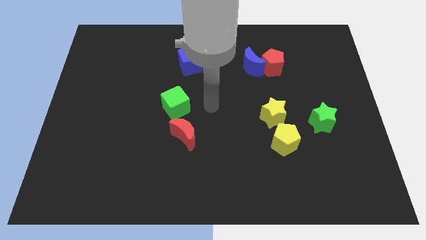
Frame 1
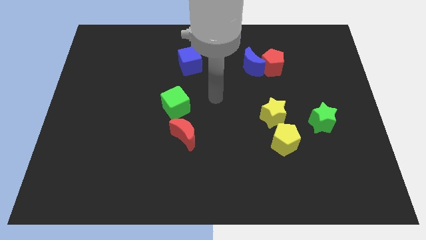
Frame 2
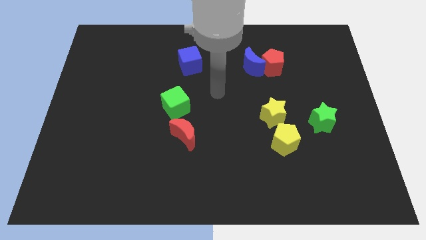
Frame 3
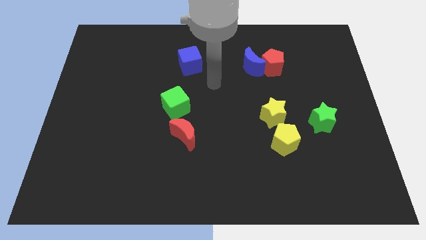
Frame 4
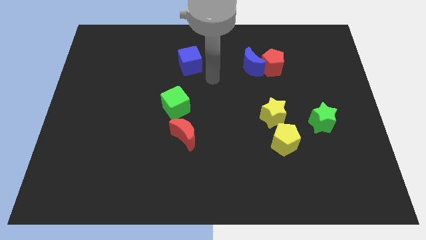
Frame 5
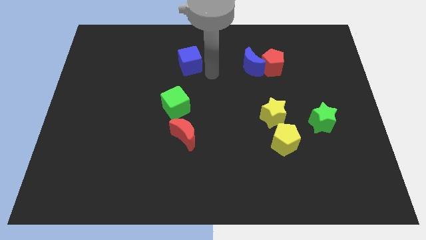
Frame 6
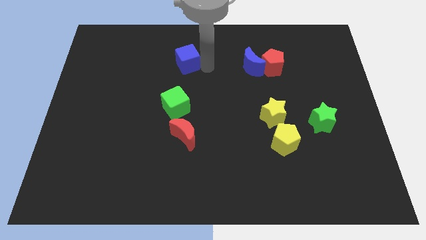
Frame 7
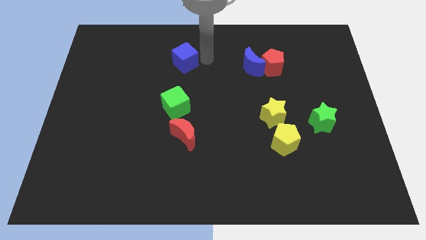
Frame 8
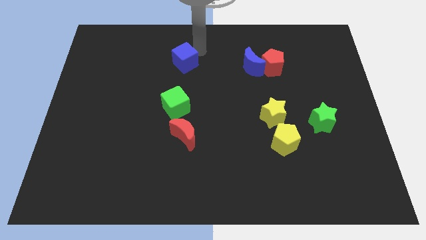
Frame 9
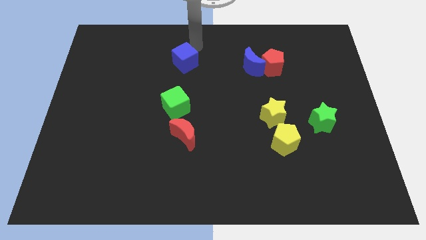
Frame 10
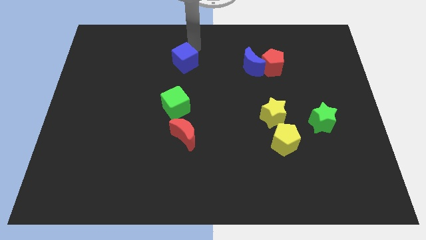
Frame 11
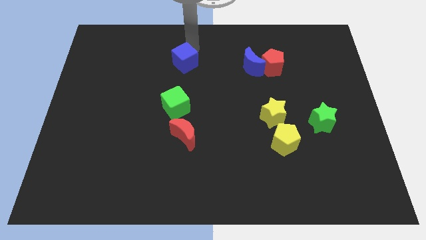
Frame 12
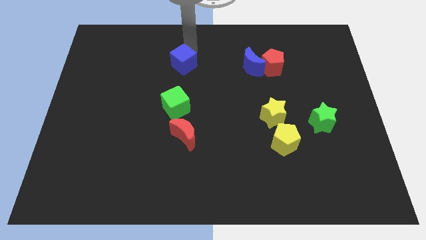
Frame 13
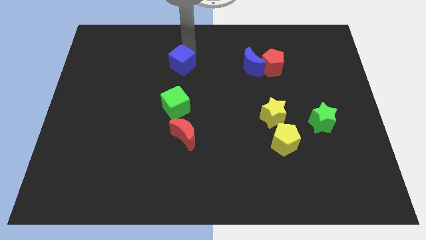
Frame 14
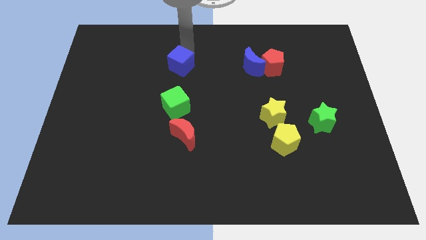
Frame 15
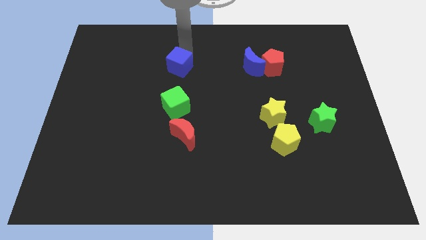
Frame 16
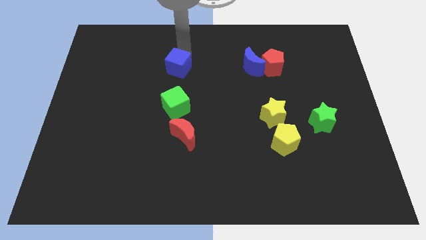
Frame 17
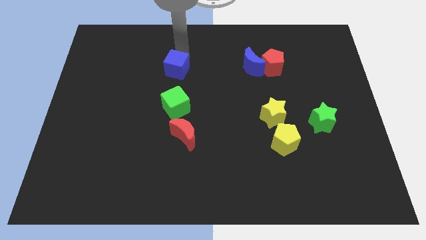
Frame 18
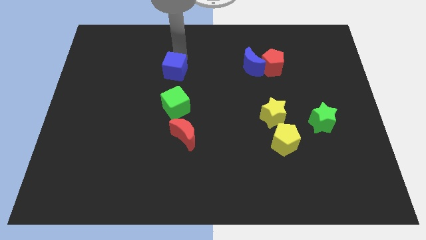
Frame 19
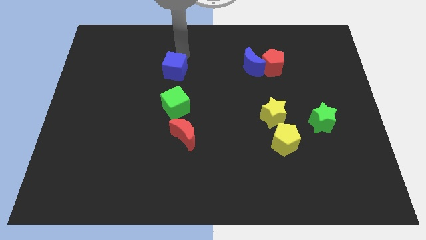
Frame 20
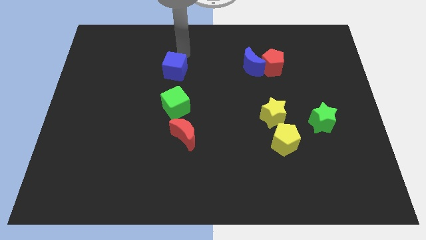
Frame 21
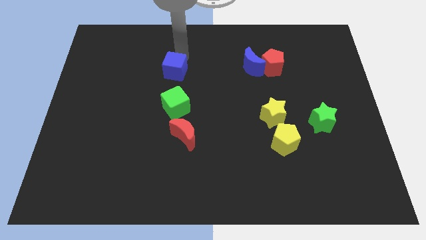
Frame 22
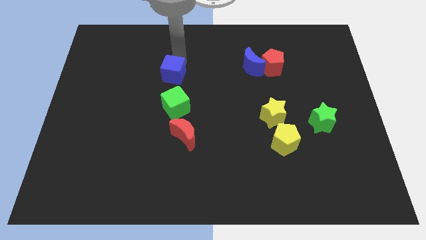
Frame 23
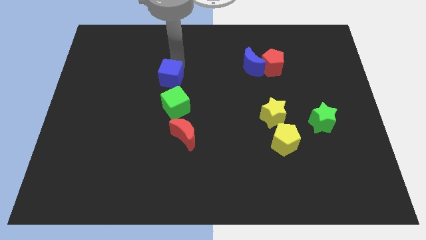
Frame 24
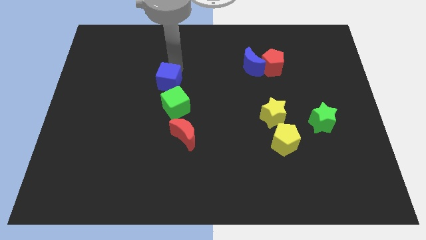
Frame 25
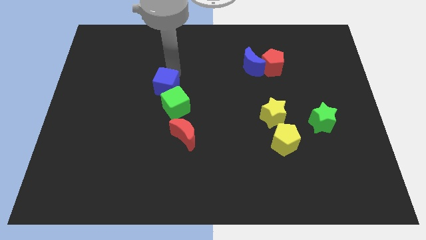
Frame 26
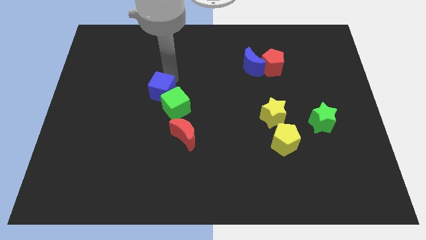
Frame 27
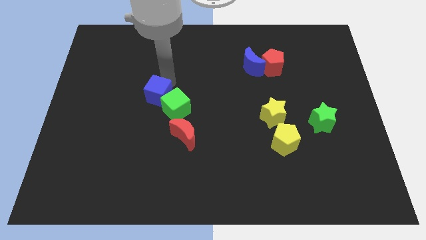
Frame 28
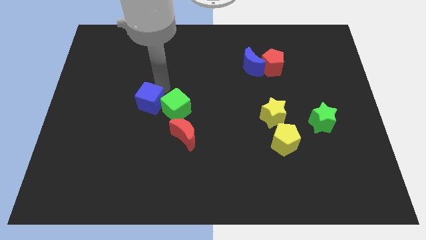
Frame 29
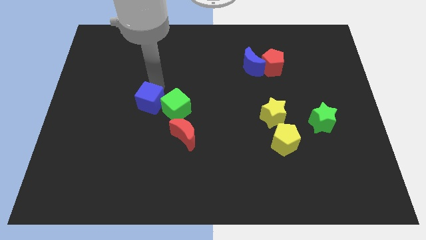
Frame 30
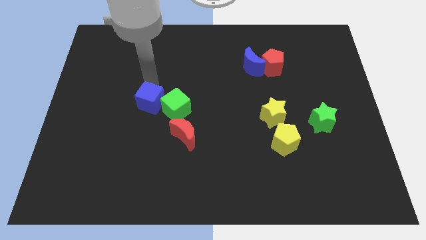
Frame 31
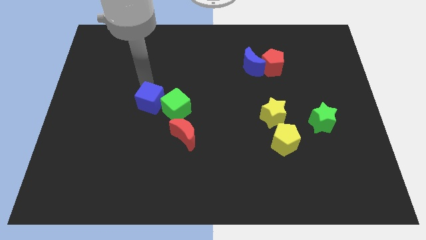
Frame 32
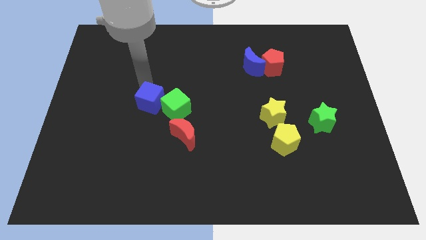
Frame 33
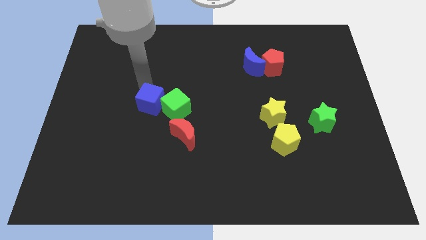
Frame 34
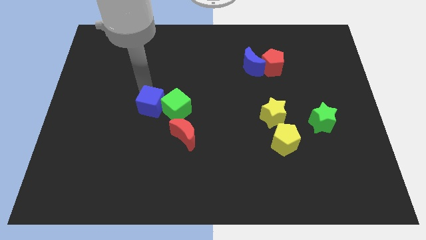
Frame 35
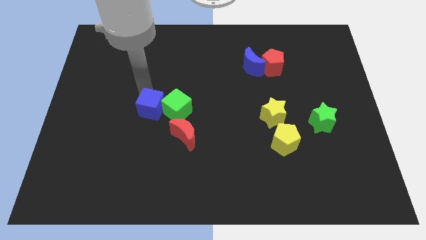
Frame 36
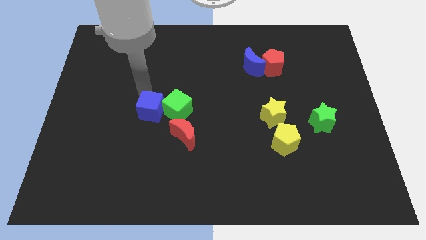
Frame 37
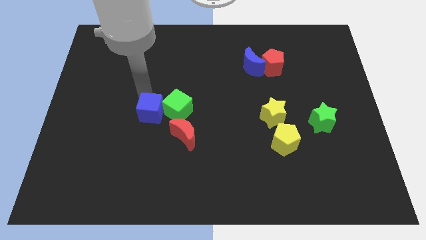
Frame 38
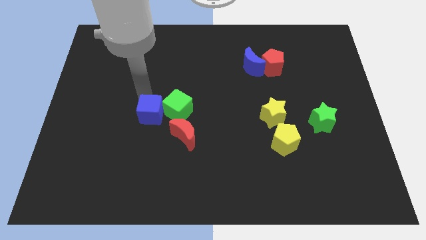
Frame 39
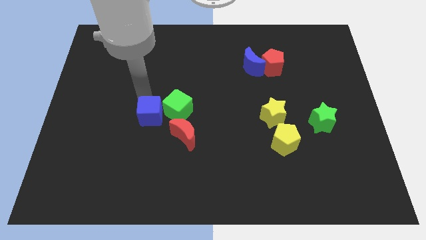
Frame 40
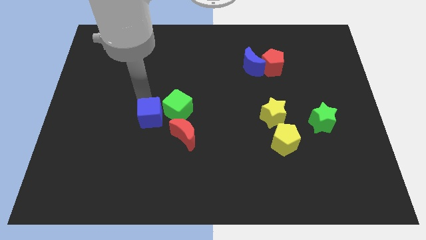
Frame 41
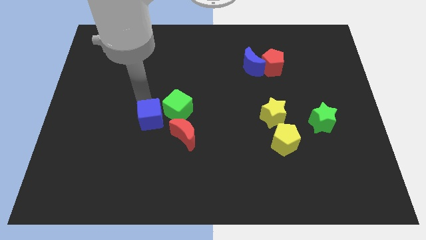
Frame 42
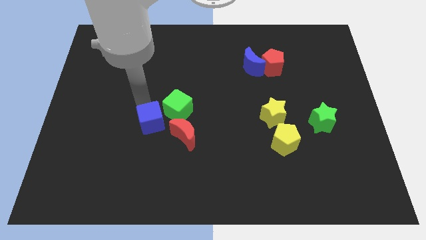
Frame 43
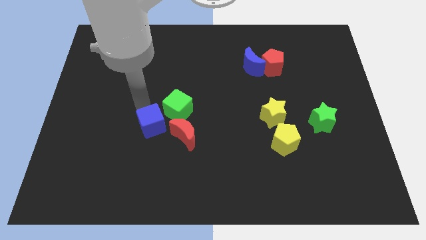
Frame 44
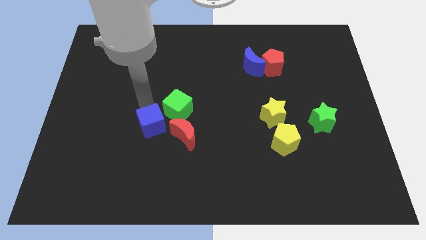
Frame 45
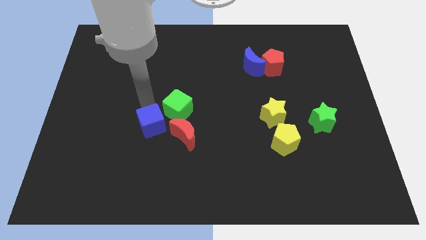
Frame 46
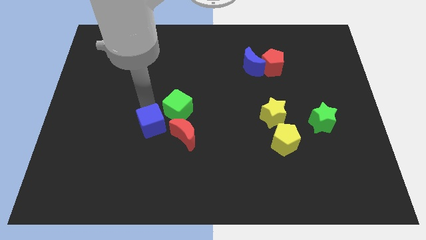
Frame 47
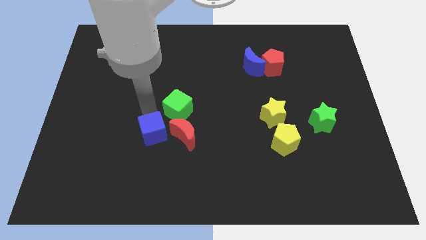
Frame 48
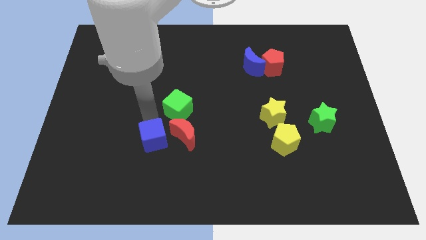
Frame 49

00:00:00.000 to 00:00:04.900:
put the blue cube diagonally down and to the left of the red moon

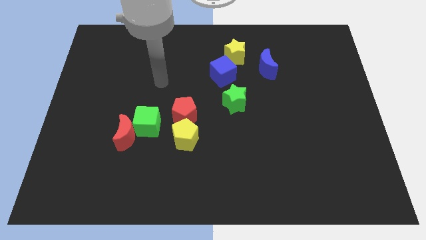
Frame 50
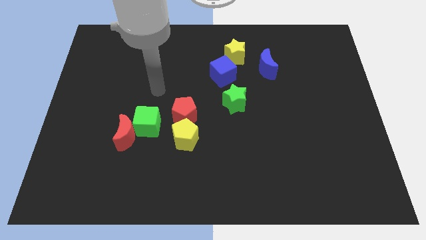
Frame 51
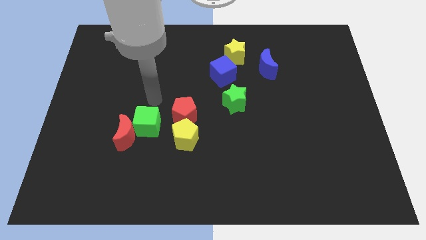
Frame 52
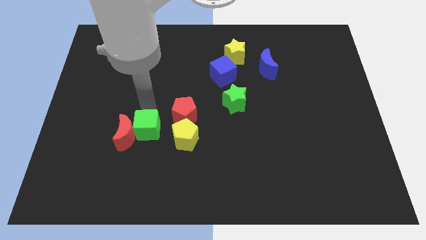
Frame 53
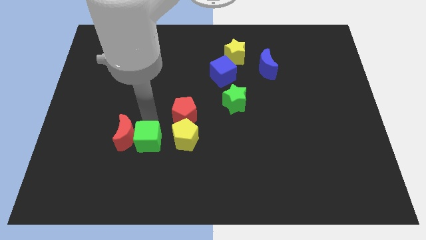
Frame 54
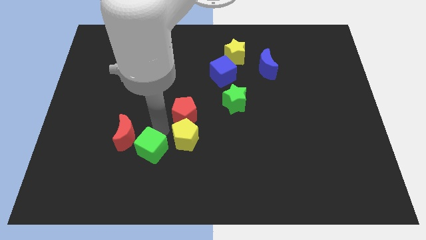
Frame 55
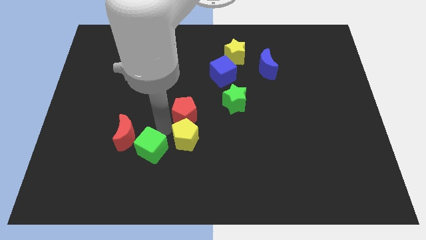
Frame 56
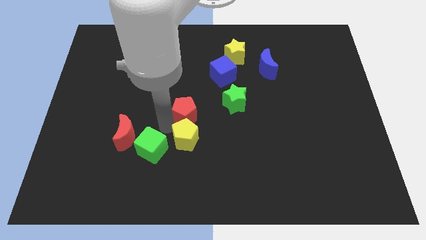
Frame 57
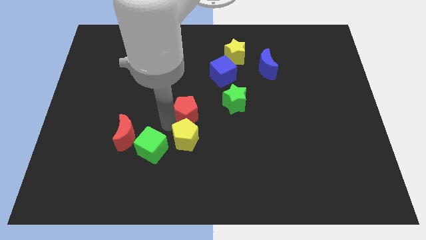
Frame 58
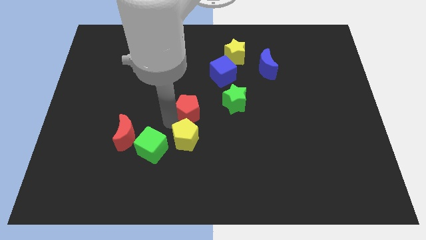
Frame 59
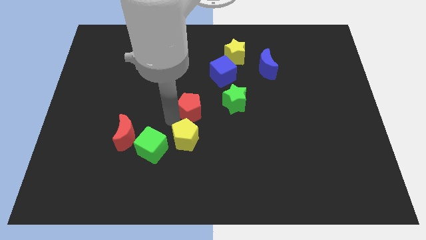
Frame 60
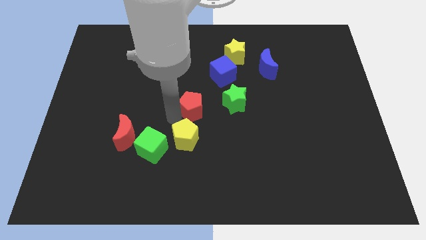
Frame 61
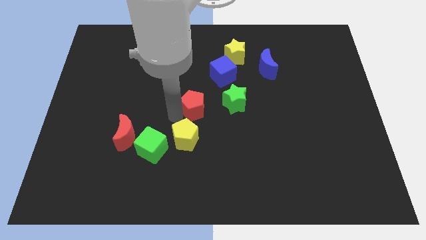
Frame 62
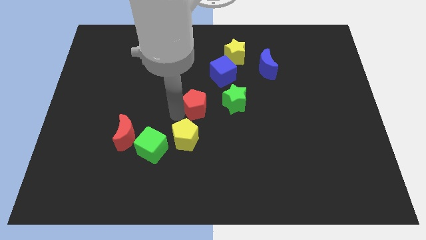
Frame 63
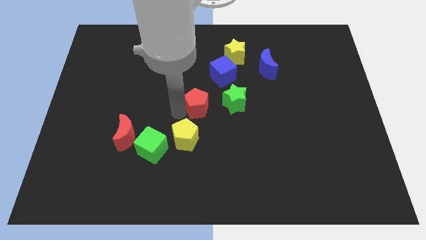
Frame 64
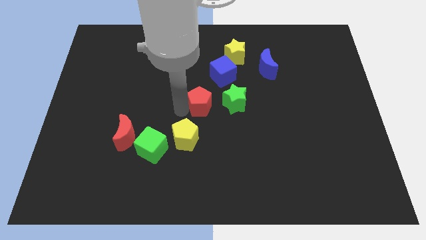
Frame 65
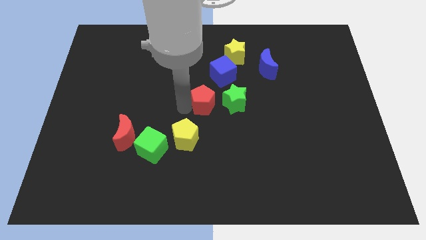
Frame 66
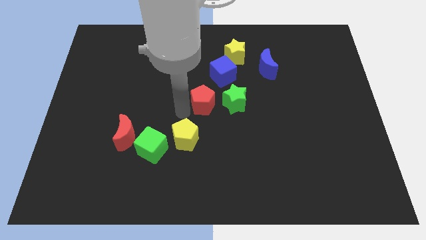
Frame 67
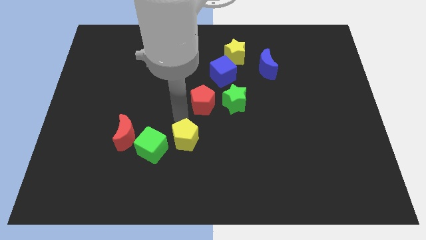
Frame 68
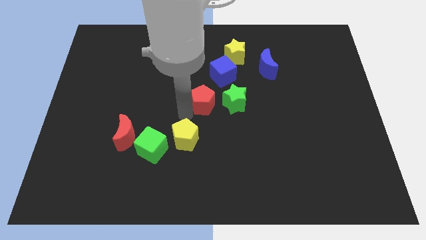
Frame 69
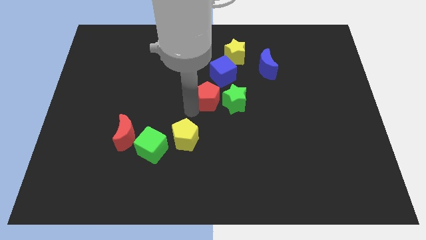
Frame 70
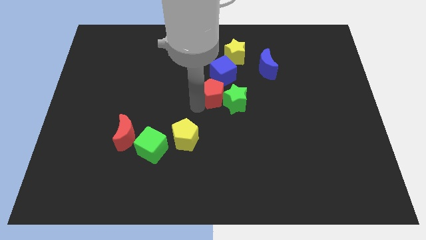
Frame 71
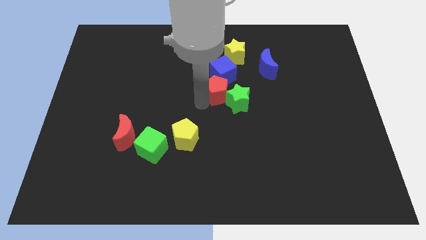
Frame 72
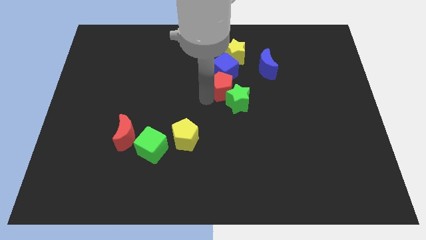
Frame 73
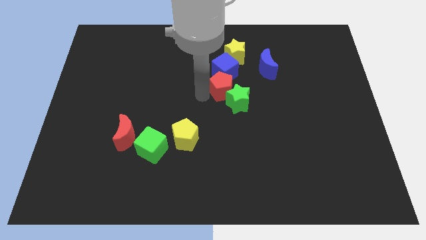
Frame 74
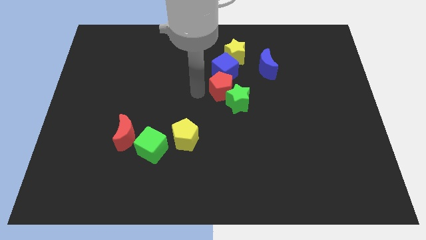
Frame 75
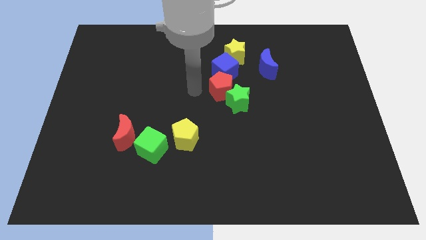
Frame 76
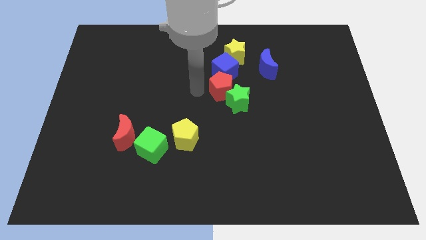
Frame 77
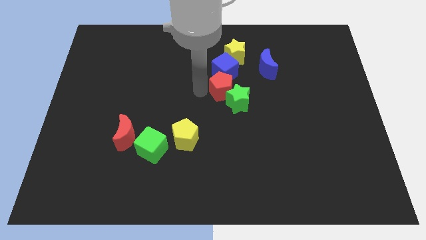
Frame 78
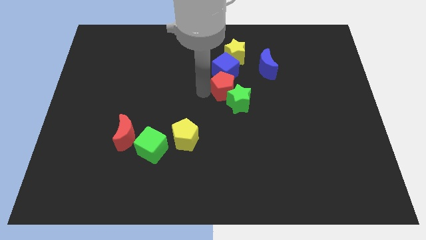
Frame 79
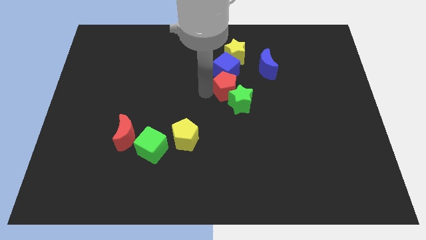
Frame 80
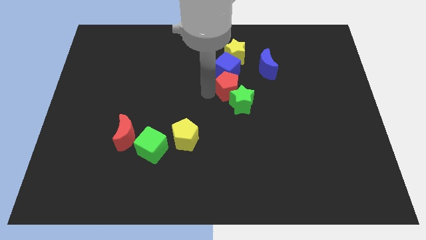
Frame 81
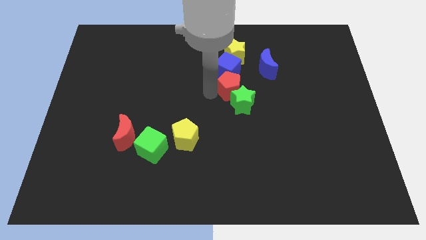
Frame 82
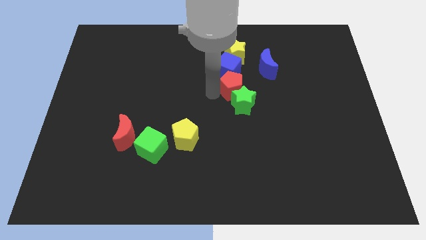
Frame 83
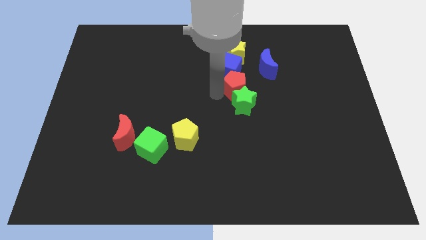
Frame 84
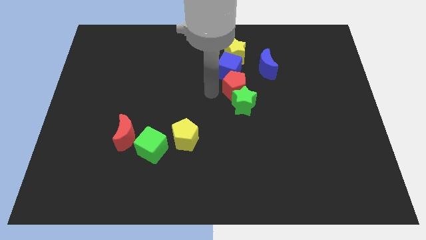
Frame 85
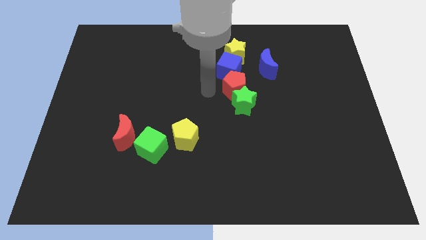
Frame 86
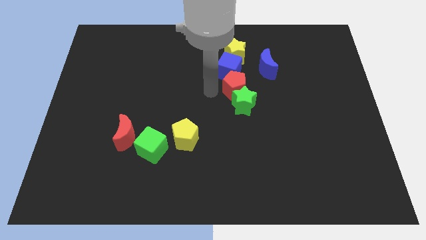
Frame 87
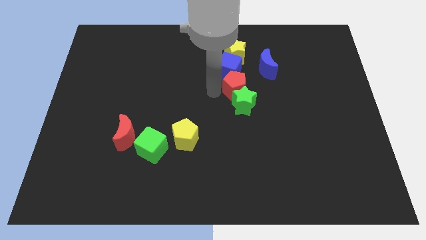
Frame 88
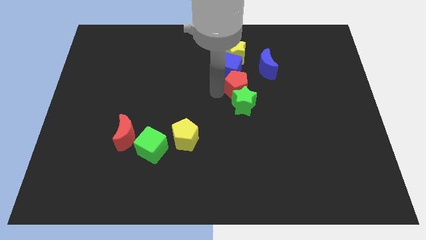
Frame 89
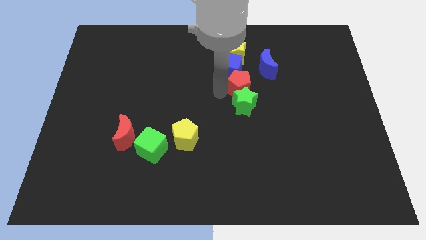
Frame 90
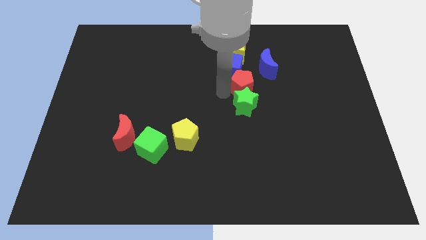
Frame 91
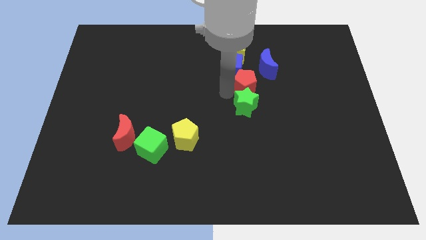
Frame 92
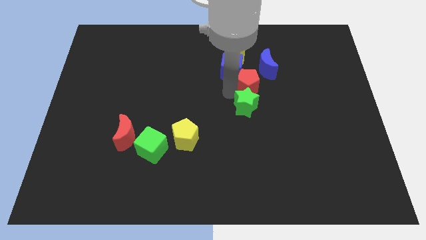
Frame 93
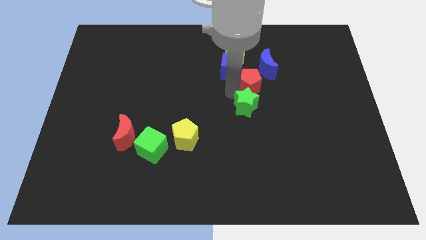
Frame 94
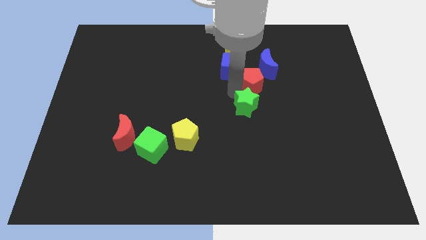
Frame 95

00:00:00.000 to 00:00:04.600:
move the red pentagon just right of the blue cube
